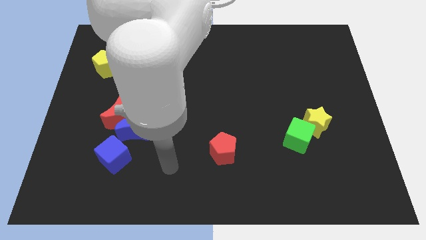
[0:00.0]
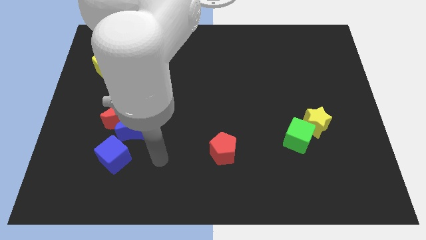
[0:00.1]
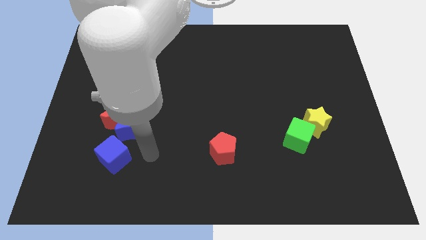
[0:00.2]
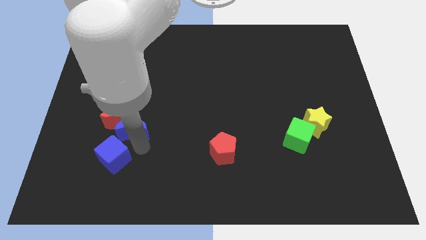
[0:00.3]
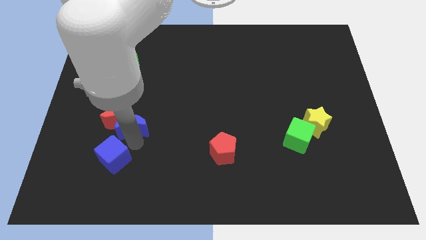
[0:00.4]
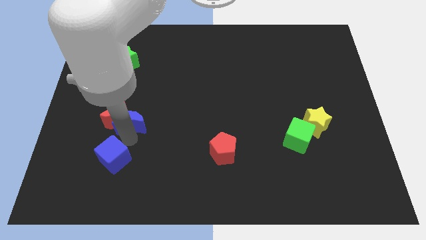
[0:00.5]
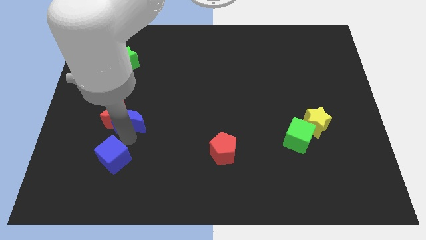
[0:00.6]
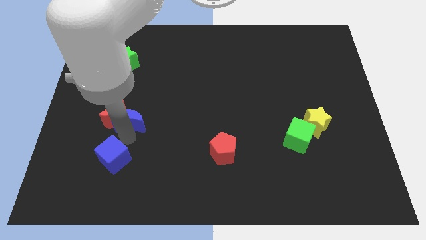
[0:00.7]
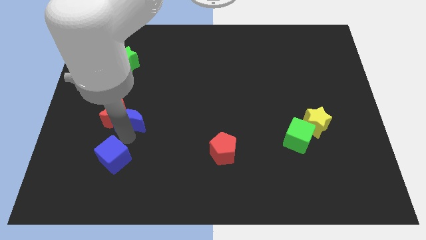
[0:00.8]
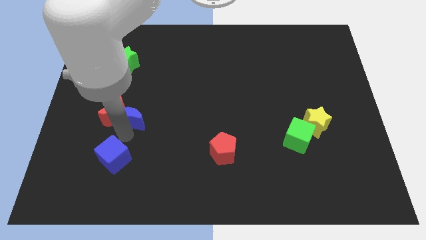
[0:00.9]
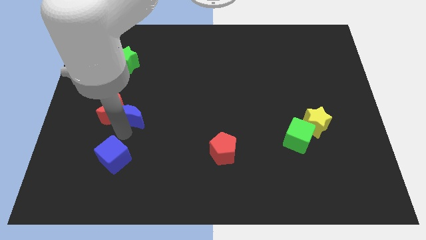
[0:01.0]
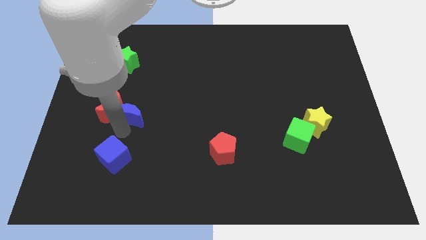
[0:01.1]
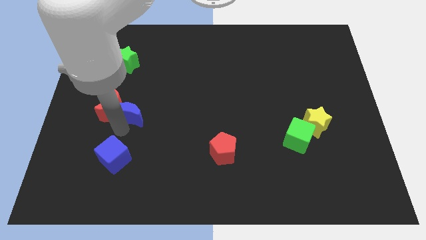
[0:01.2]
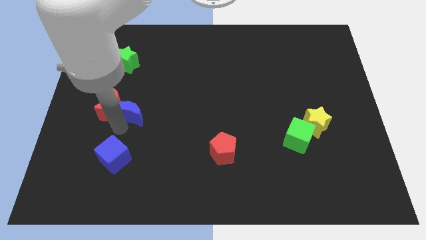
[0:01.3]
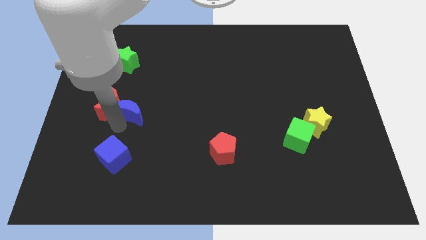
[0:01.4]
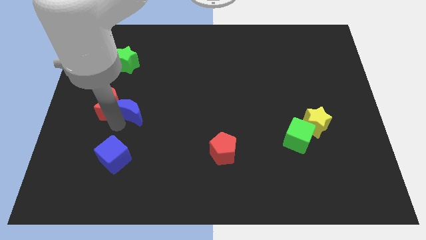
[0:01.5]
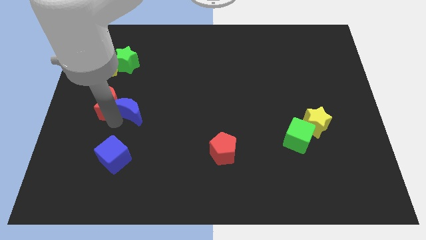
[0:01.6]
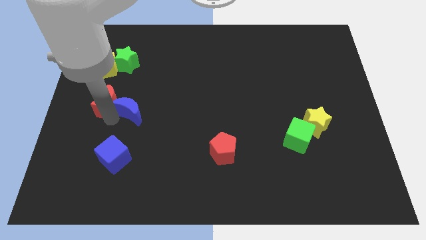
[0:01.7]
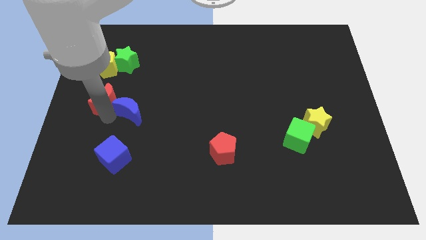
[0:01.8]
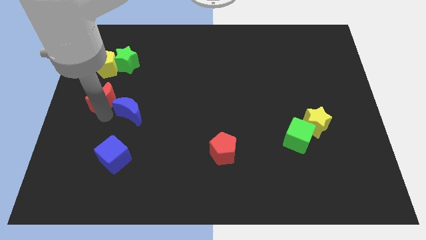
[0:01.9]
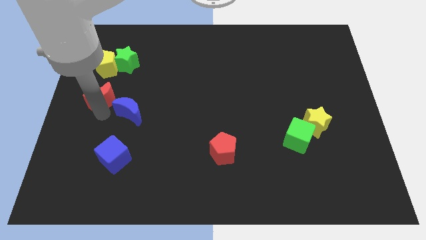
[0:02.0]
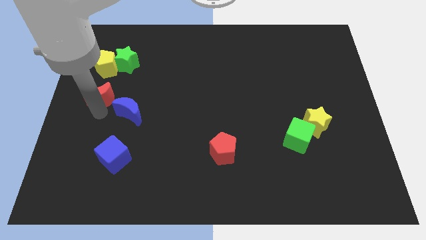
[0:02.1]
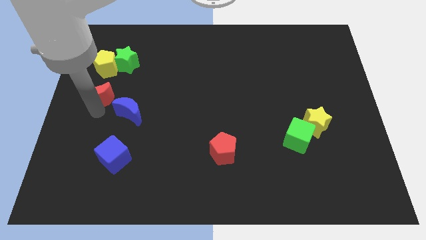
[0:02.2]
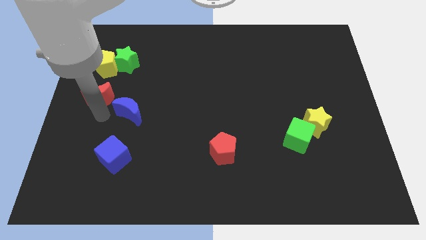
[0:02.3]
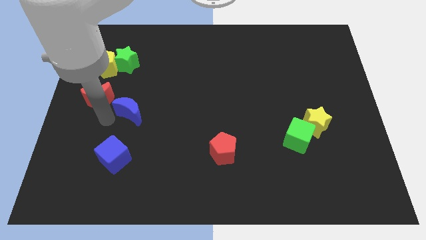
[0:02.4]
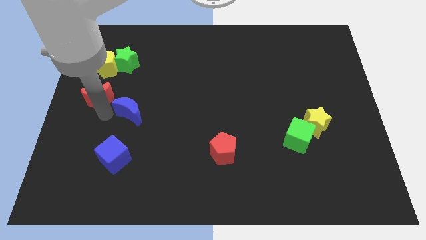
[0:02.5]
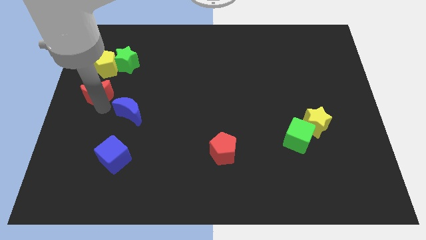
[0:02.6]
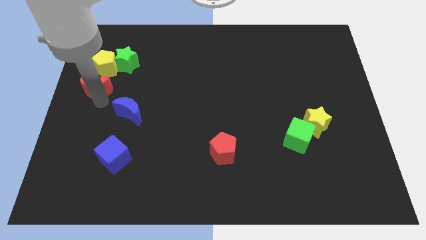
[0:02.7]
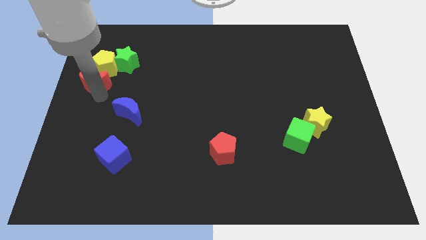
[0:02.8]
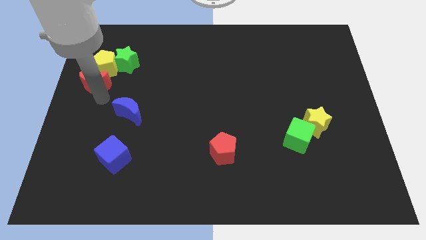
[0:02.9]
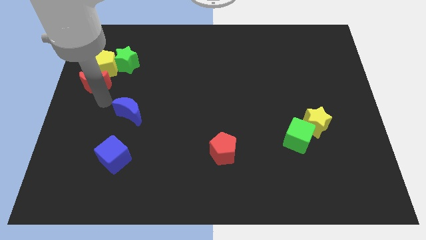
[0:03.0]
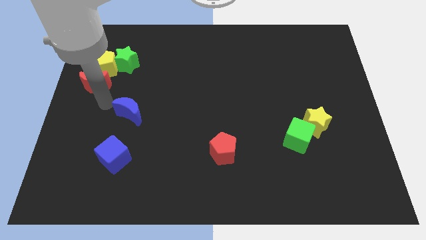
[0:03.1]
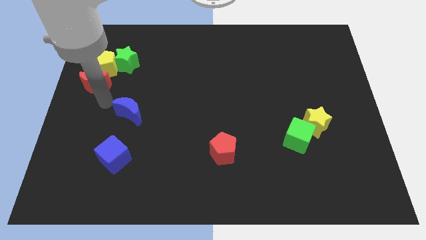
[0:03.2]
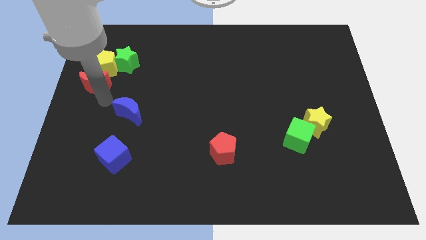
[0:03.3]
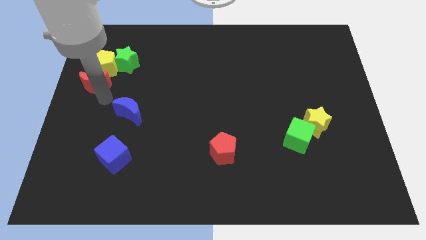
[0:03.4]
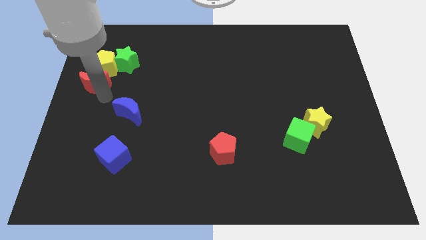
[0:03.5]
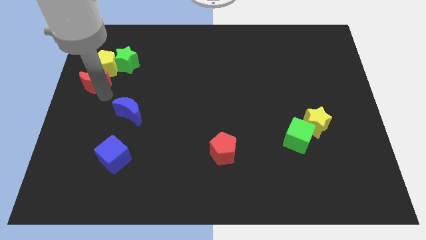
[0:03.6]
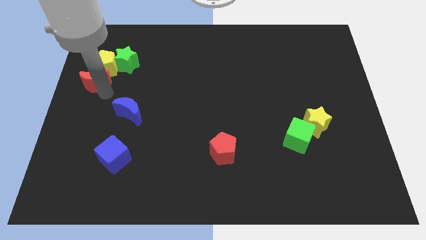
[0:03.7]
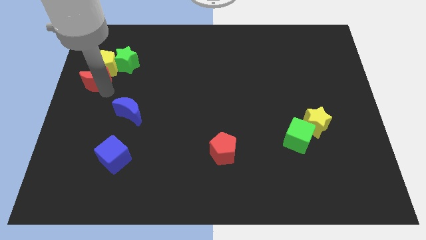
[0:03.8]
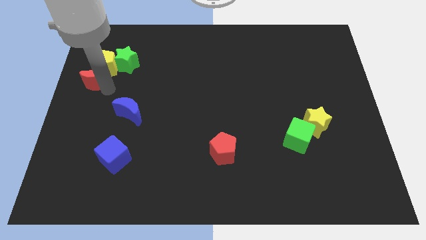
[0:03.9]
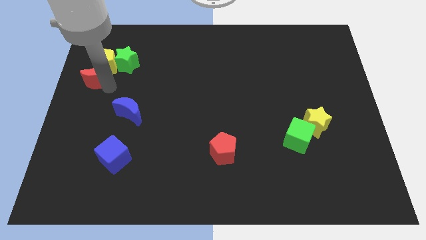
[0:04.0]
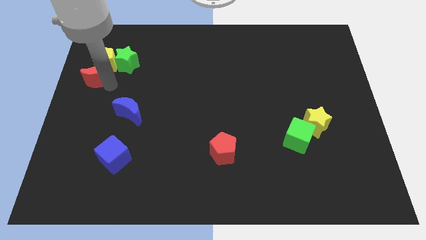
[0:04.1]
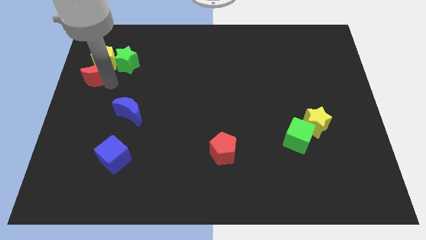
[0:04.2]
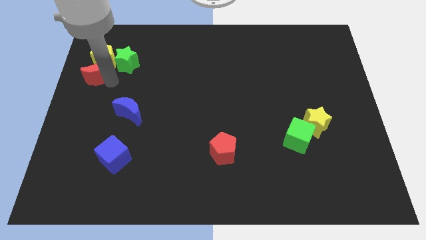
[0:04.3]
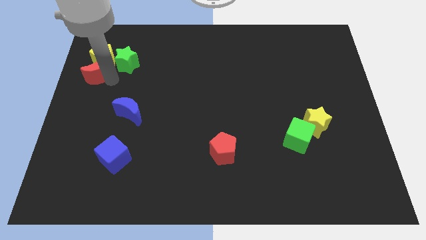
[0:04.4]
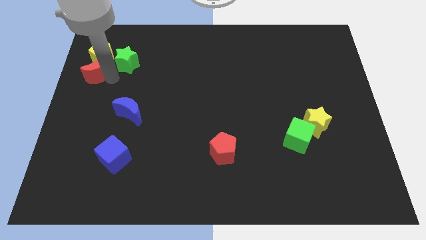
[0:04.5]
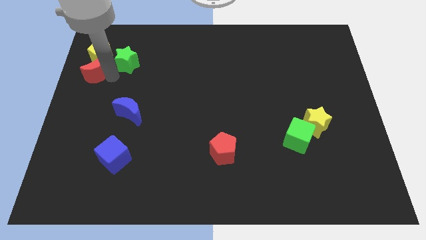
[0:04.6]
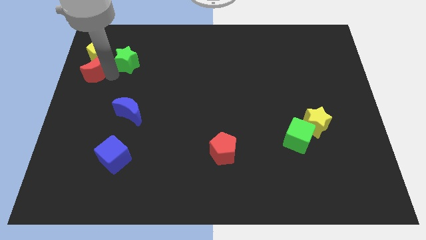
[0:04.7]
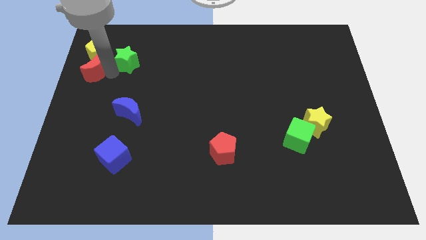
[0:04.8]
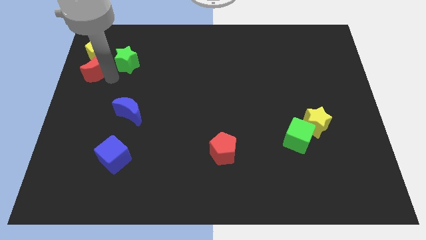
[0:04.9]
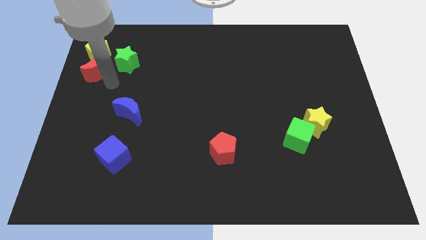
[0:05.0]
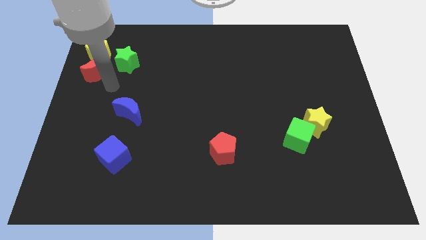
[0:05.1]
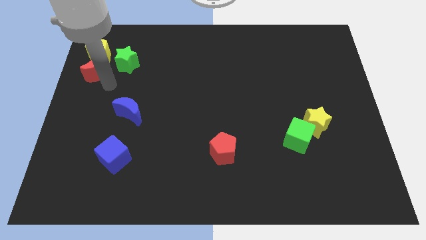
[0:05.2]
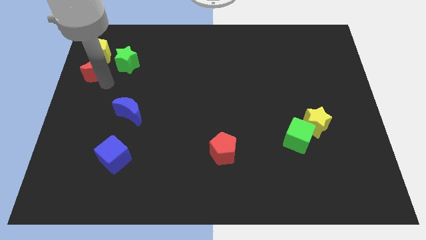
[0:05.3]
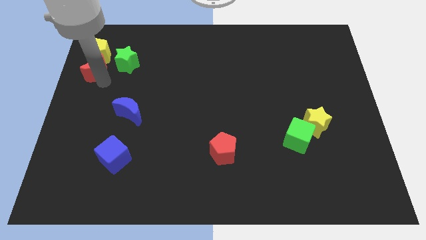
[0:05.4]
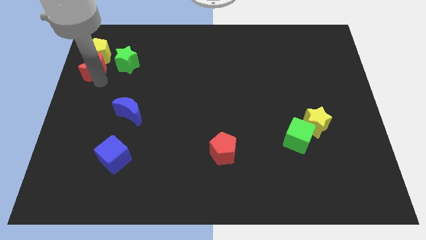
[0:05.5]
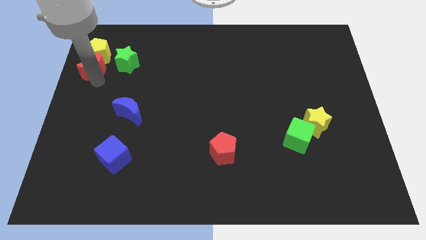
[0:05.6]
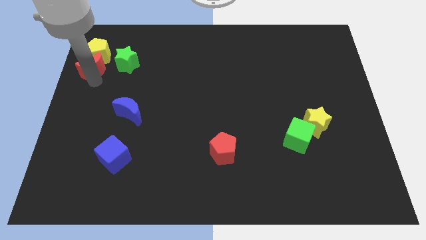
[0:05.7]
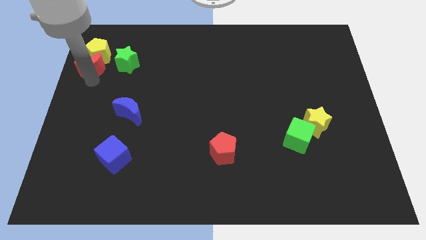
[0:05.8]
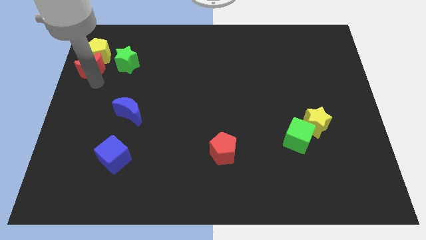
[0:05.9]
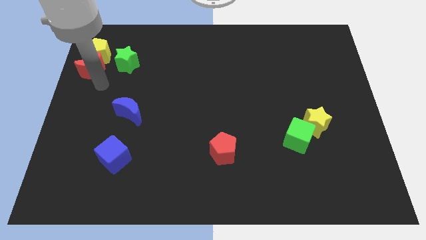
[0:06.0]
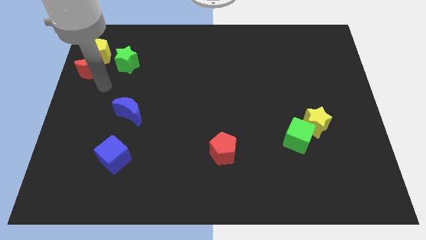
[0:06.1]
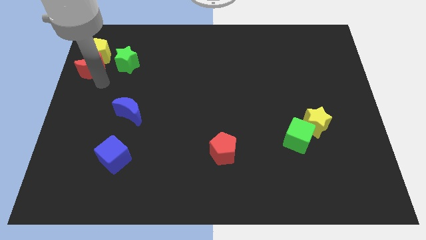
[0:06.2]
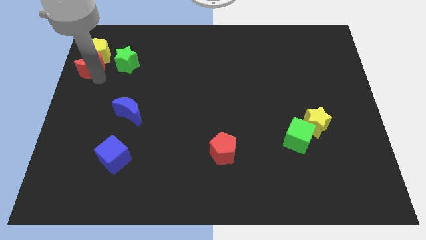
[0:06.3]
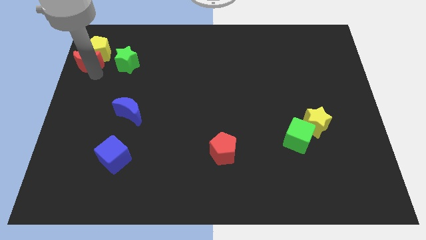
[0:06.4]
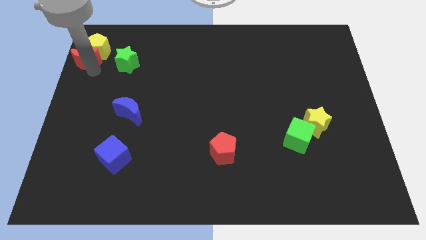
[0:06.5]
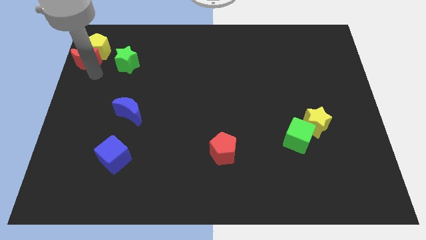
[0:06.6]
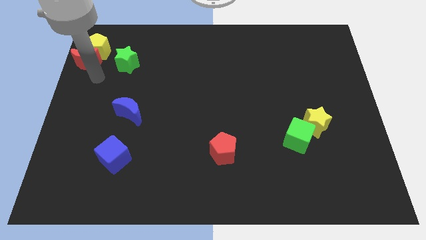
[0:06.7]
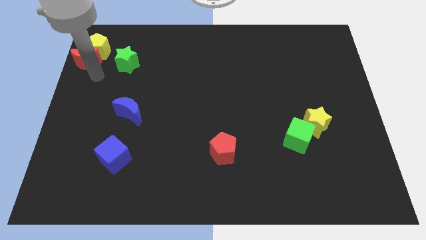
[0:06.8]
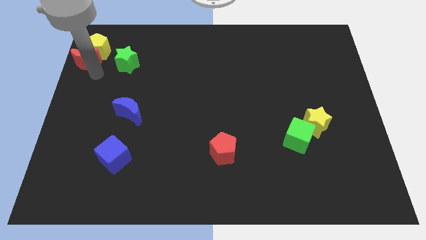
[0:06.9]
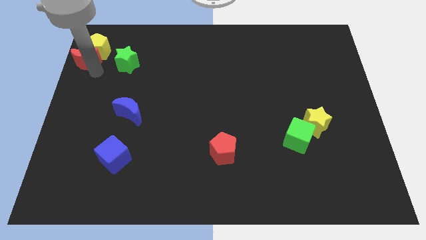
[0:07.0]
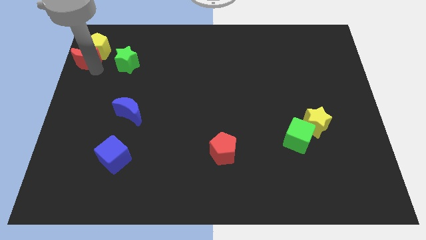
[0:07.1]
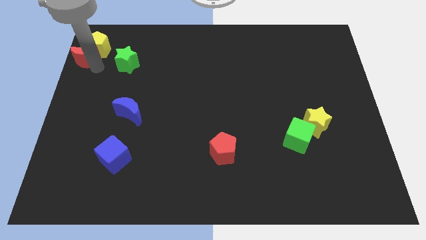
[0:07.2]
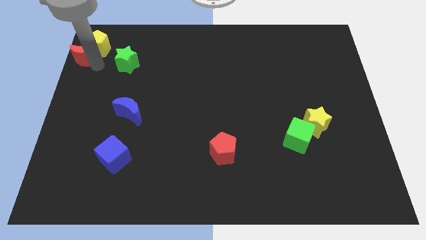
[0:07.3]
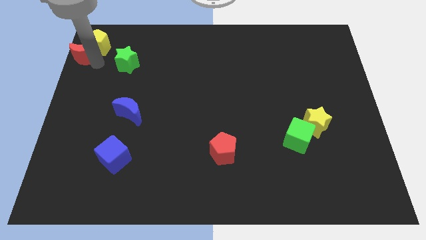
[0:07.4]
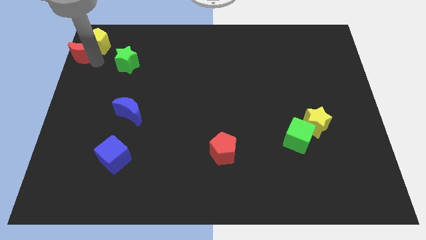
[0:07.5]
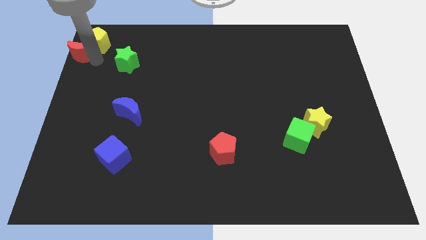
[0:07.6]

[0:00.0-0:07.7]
slide the red moon to the top left corner

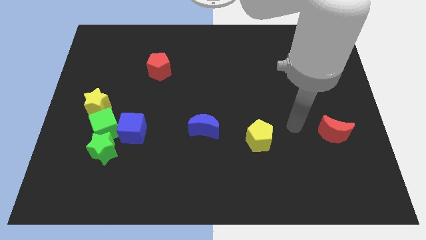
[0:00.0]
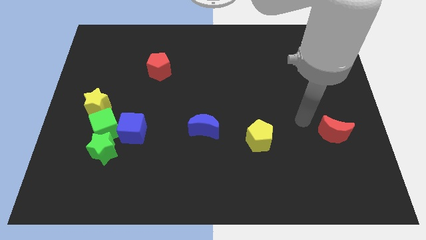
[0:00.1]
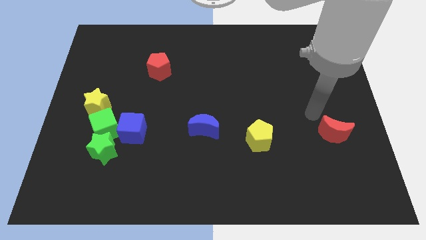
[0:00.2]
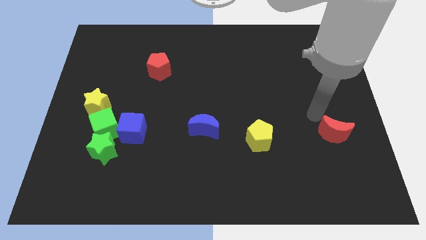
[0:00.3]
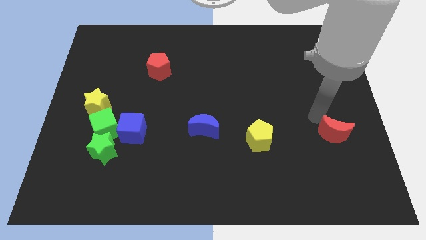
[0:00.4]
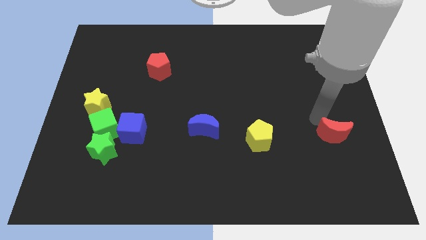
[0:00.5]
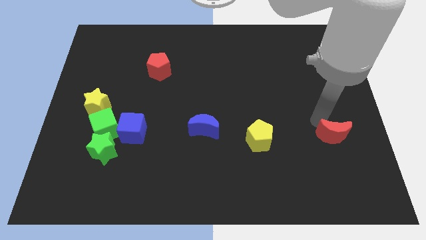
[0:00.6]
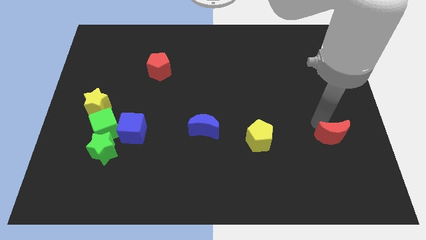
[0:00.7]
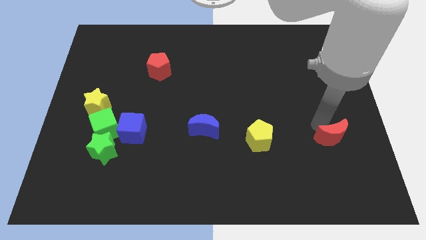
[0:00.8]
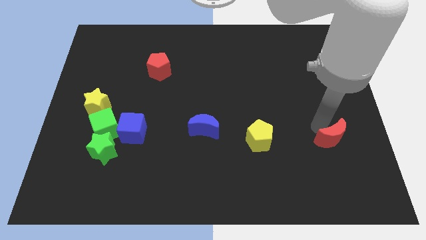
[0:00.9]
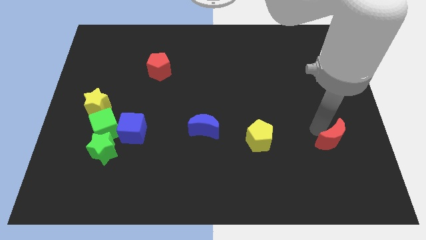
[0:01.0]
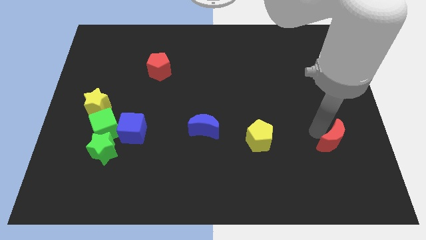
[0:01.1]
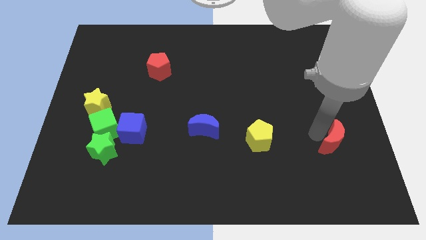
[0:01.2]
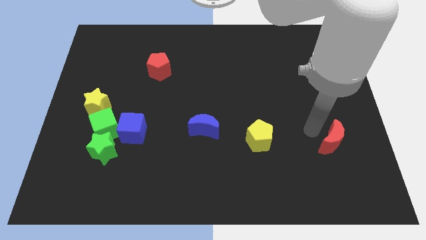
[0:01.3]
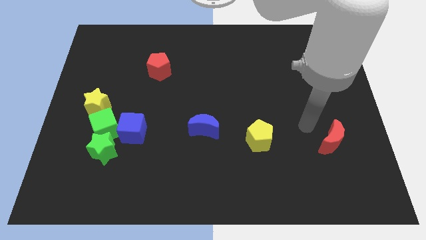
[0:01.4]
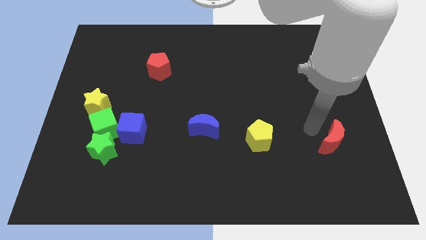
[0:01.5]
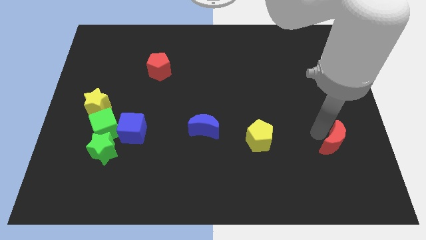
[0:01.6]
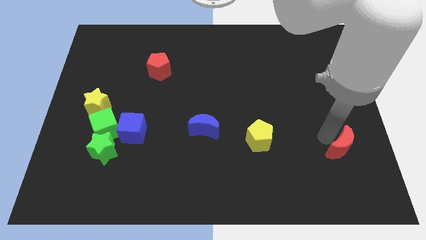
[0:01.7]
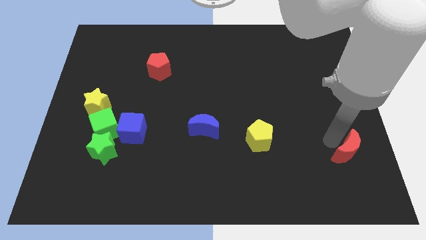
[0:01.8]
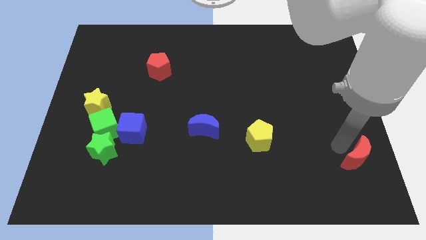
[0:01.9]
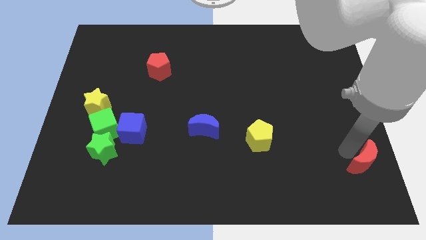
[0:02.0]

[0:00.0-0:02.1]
put the red moon to the bottom right
